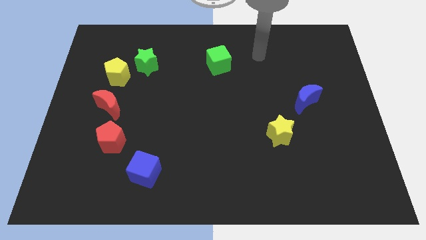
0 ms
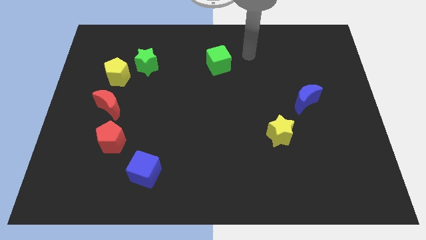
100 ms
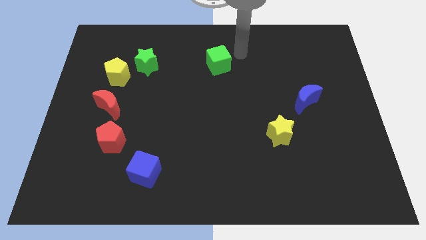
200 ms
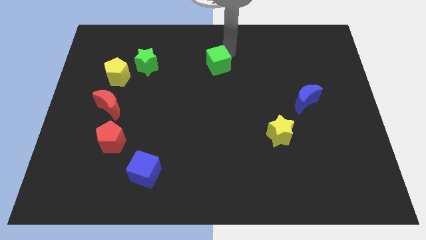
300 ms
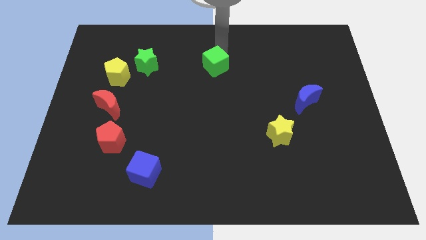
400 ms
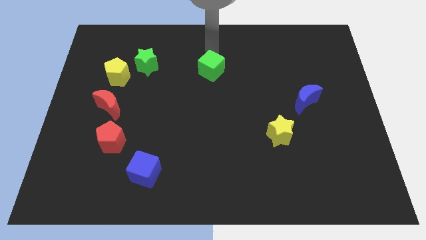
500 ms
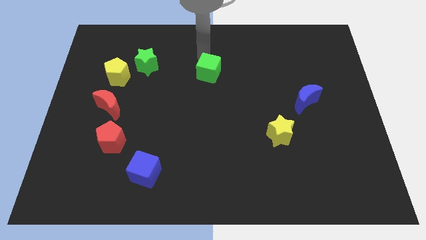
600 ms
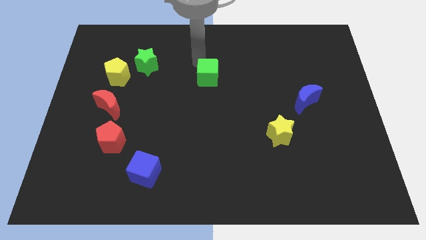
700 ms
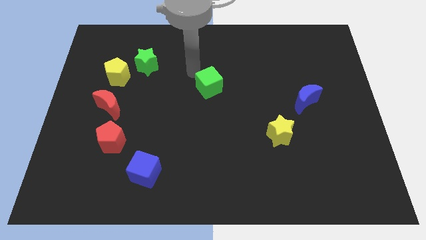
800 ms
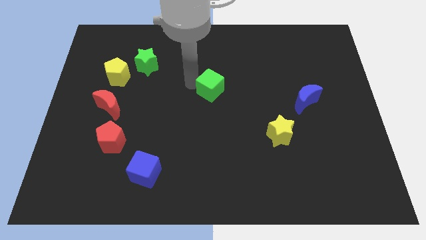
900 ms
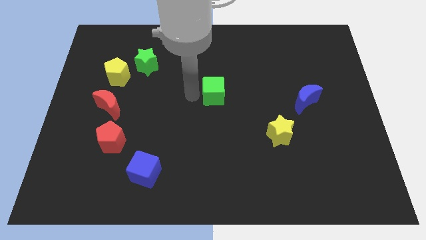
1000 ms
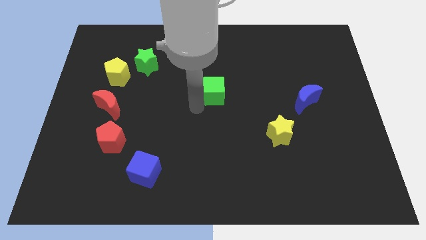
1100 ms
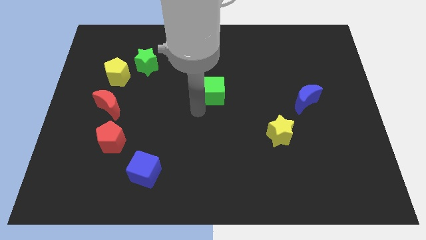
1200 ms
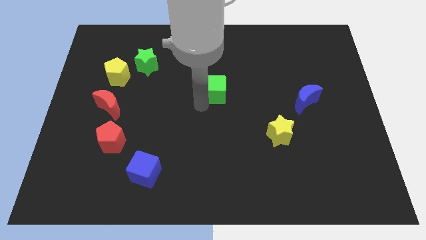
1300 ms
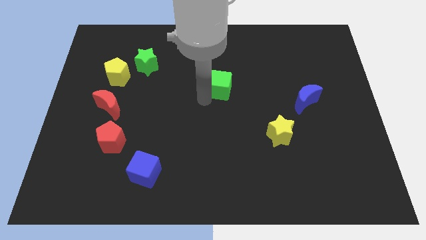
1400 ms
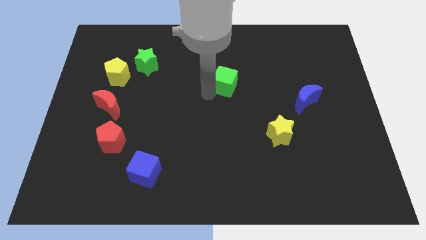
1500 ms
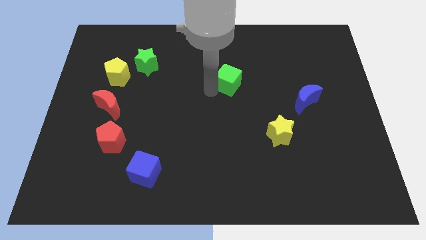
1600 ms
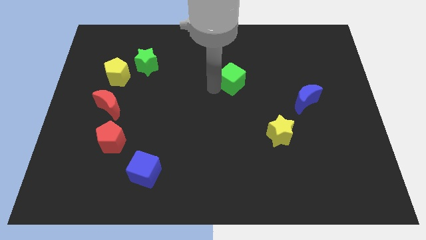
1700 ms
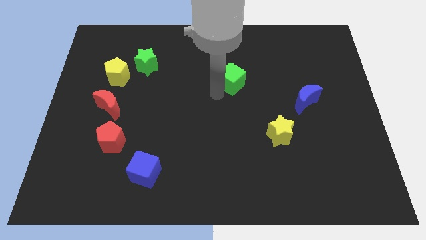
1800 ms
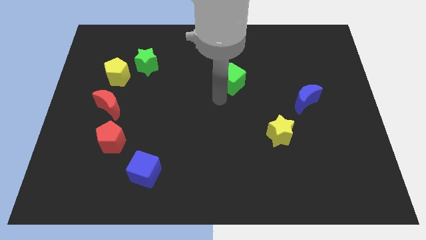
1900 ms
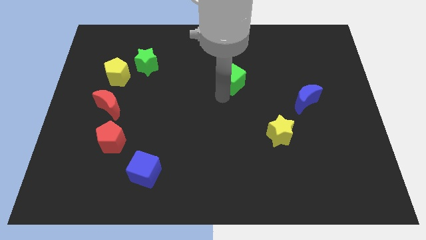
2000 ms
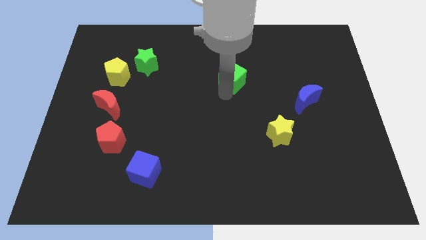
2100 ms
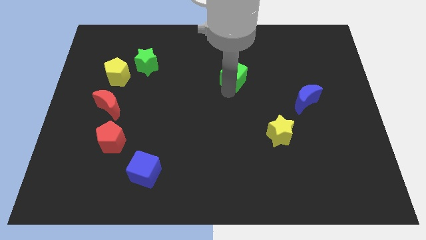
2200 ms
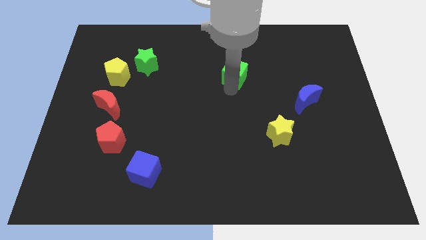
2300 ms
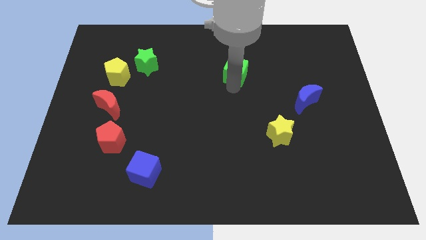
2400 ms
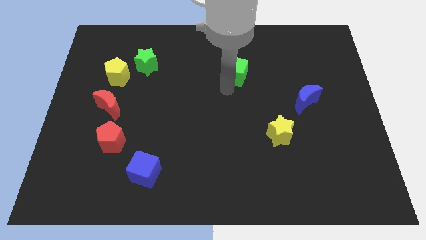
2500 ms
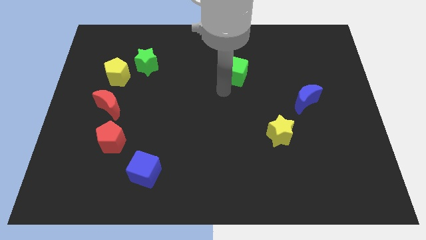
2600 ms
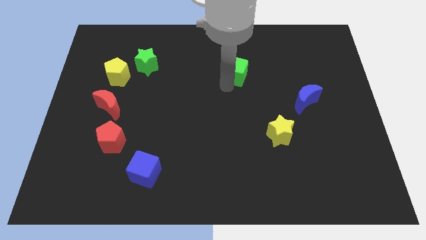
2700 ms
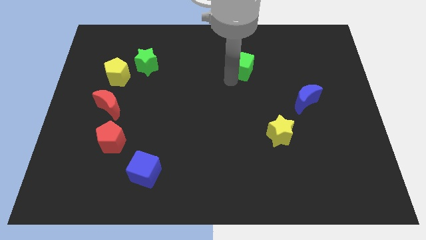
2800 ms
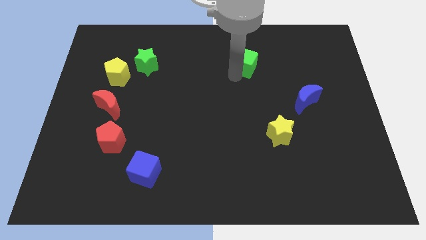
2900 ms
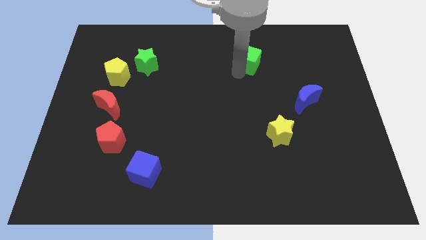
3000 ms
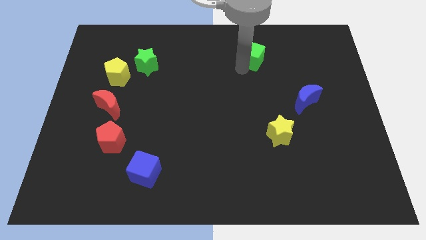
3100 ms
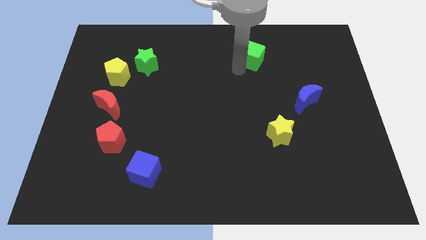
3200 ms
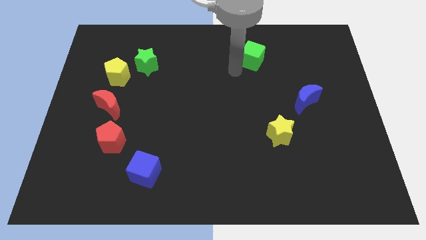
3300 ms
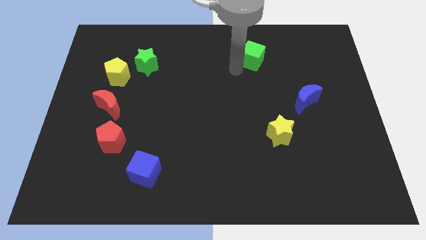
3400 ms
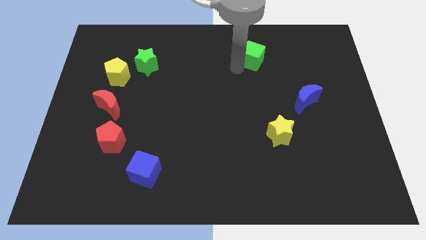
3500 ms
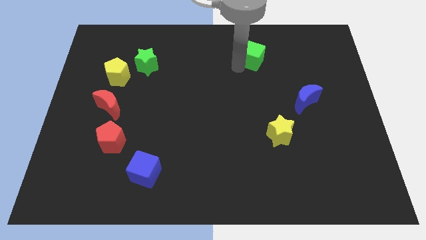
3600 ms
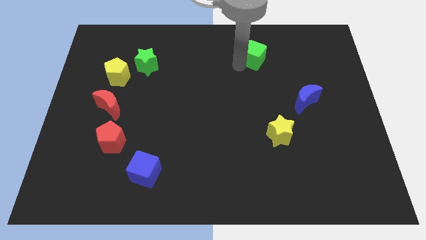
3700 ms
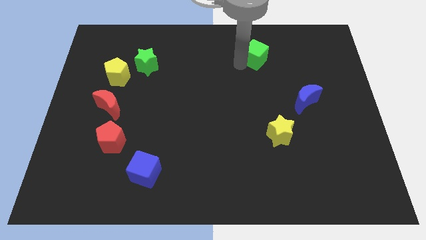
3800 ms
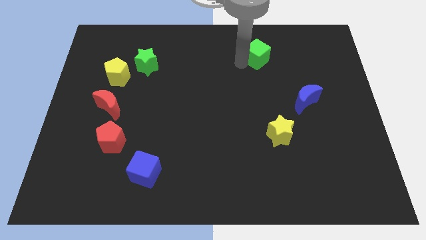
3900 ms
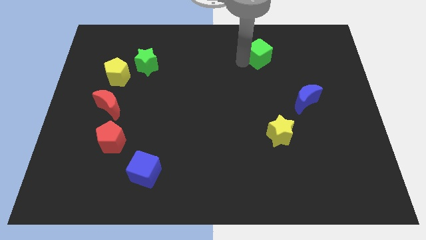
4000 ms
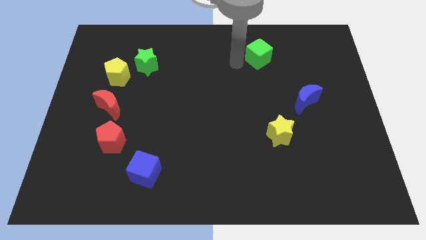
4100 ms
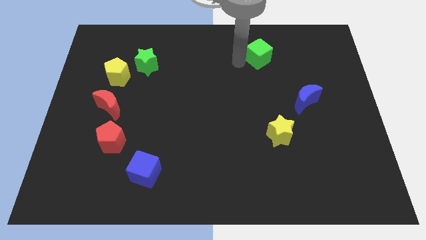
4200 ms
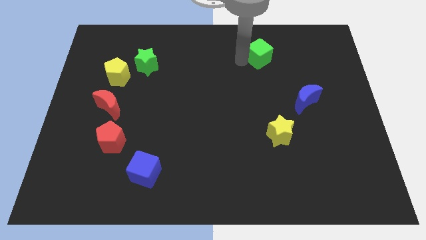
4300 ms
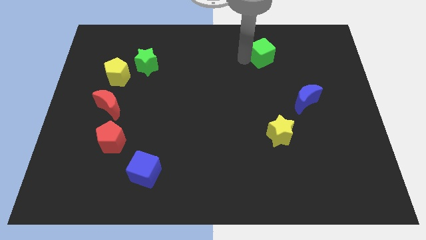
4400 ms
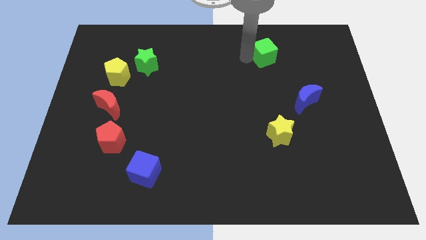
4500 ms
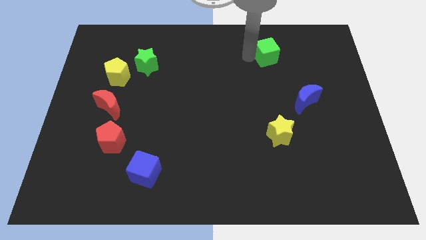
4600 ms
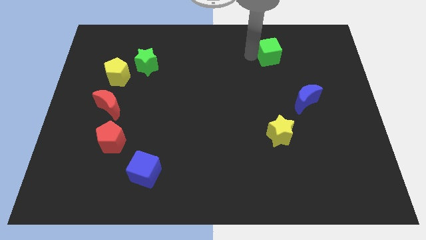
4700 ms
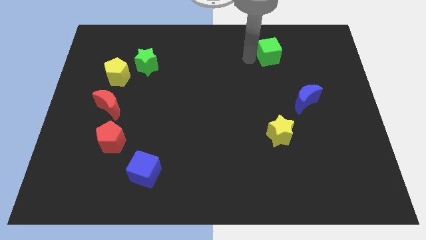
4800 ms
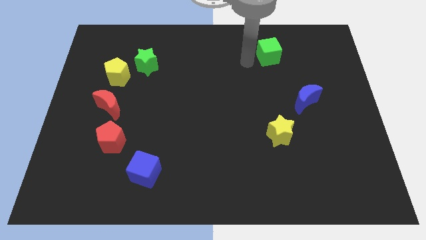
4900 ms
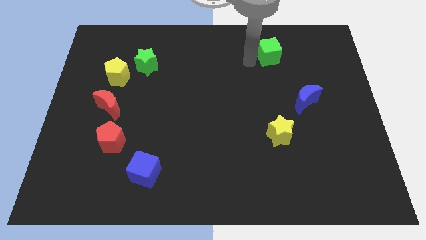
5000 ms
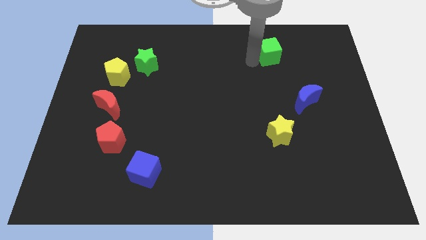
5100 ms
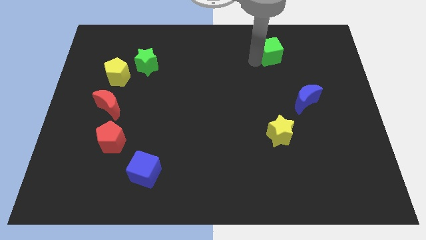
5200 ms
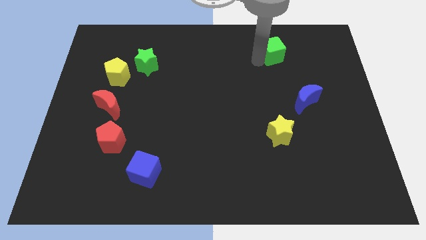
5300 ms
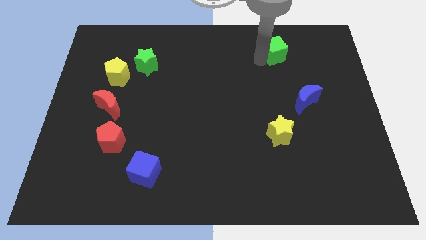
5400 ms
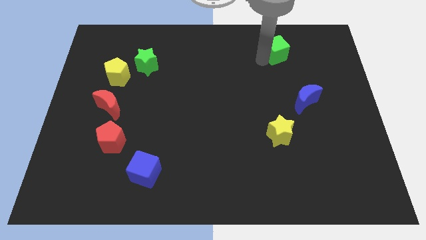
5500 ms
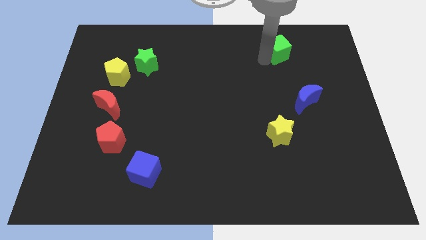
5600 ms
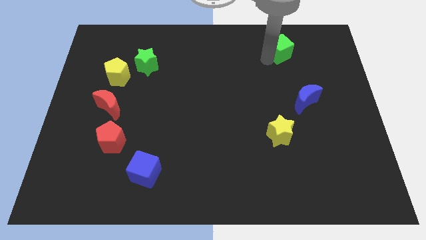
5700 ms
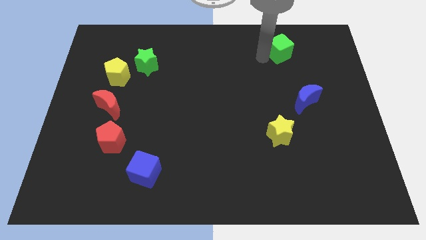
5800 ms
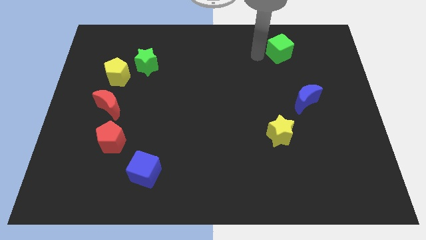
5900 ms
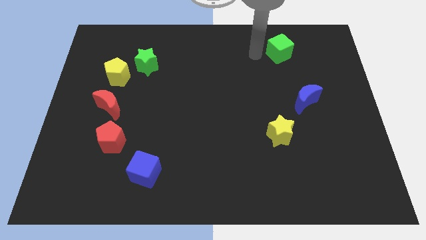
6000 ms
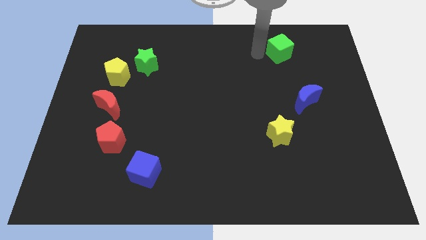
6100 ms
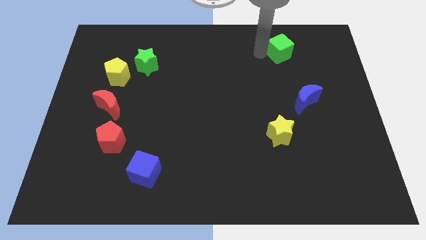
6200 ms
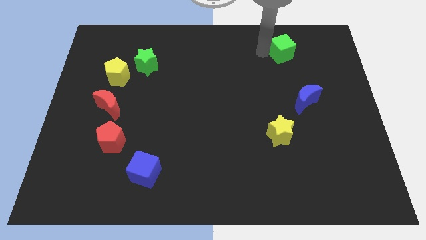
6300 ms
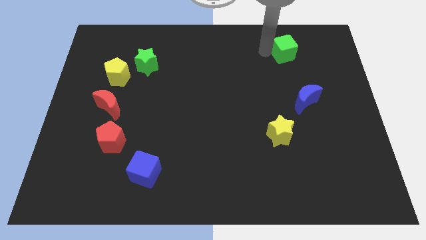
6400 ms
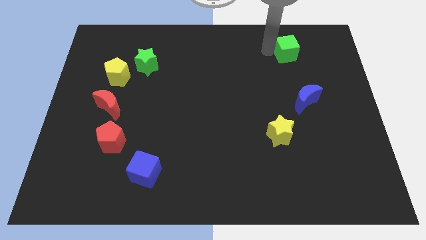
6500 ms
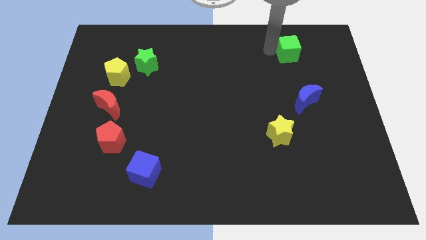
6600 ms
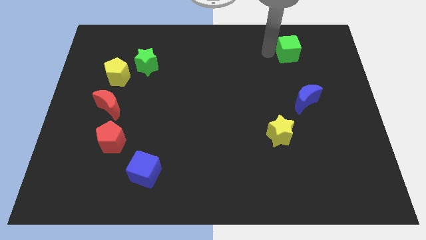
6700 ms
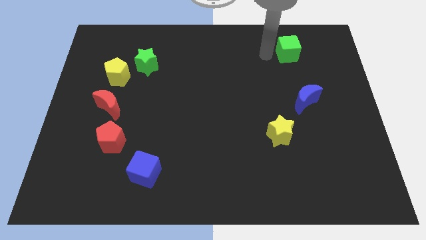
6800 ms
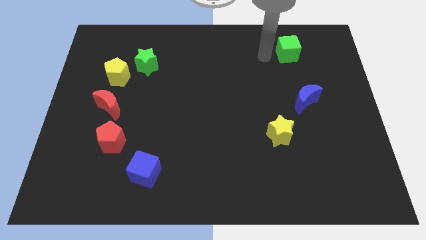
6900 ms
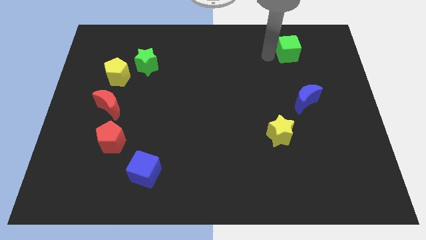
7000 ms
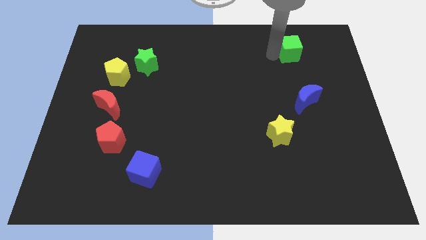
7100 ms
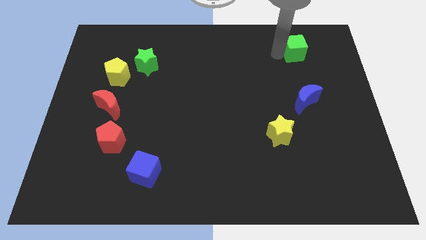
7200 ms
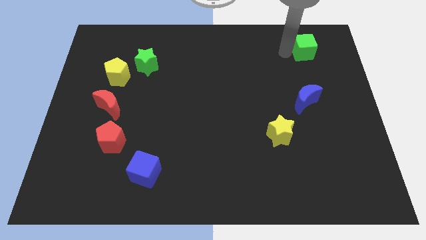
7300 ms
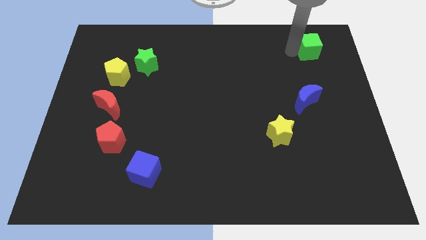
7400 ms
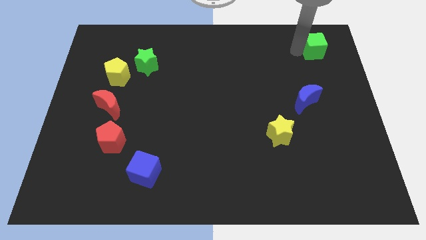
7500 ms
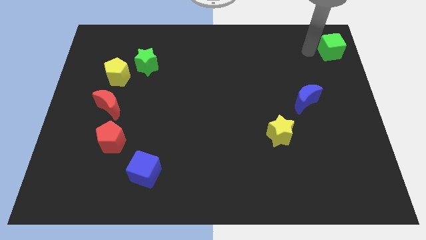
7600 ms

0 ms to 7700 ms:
put the green cube to the top right
